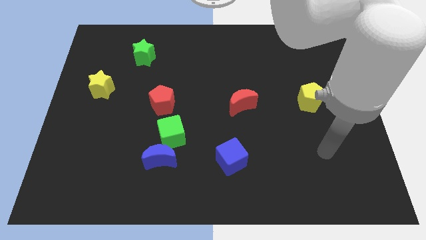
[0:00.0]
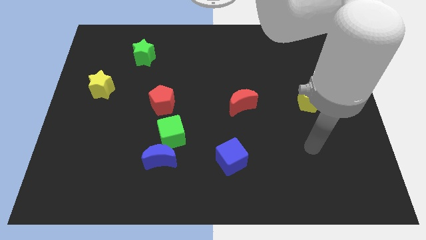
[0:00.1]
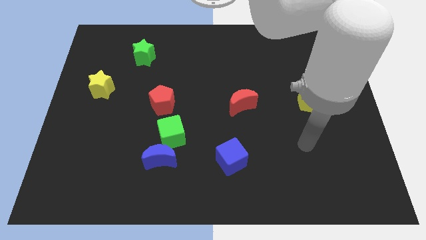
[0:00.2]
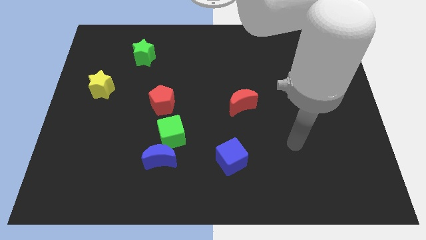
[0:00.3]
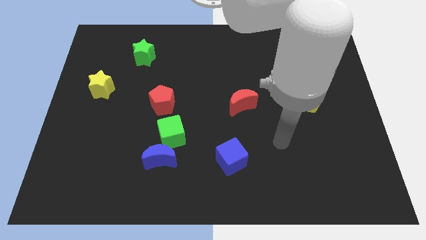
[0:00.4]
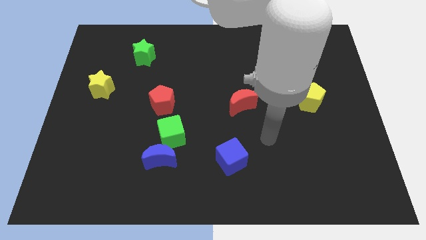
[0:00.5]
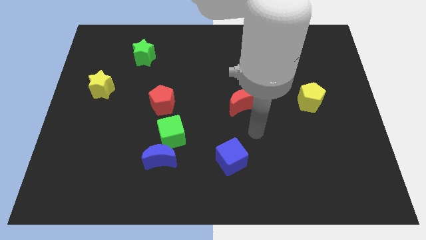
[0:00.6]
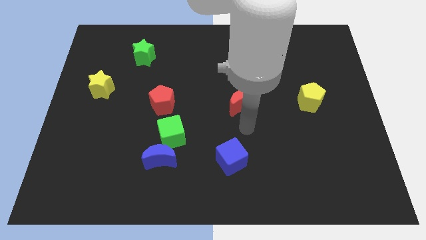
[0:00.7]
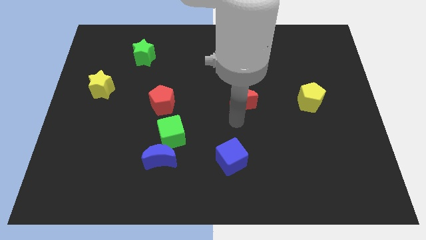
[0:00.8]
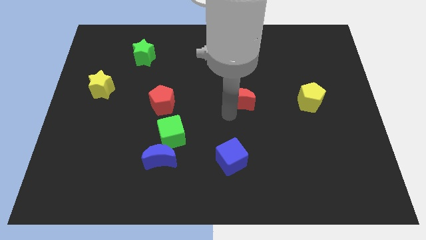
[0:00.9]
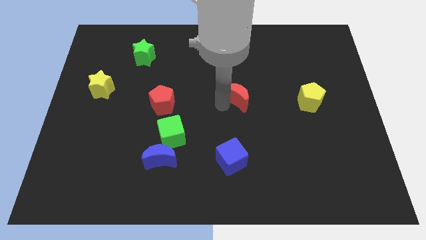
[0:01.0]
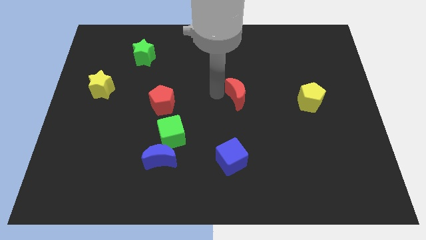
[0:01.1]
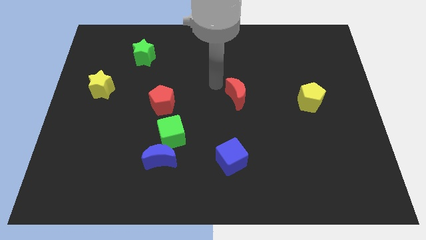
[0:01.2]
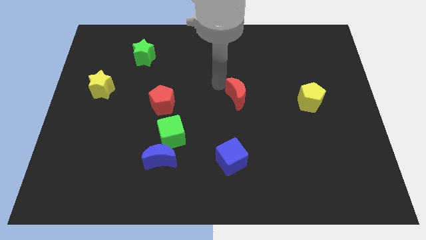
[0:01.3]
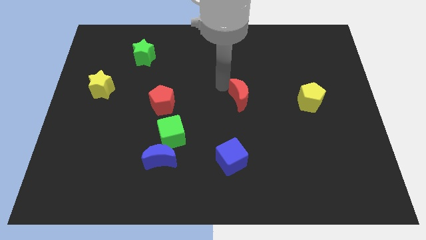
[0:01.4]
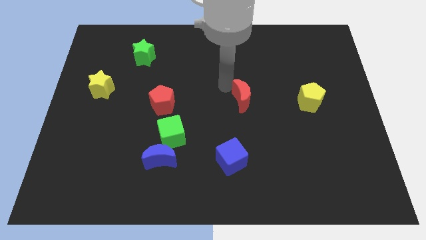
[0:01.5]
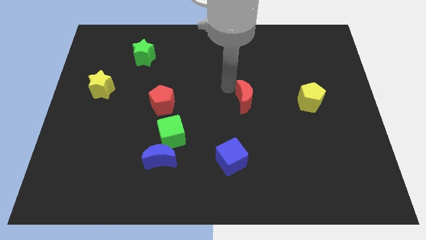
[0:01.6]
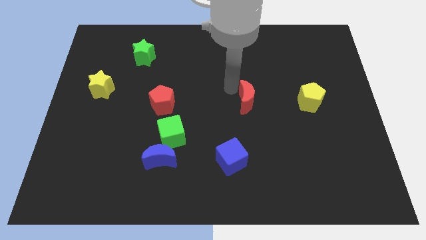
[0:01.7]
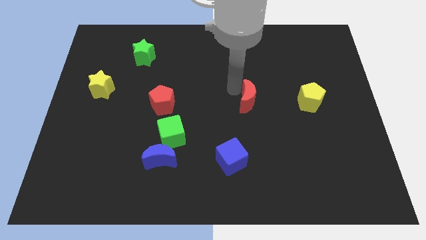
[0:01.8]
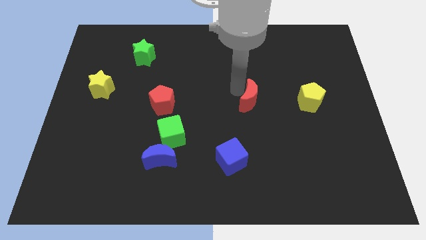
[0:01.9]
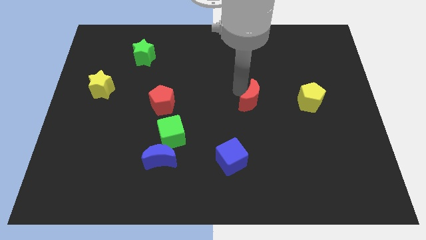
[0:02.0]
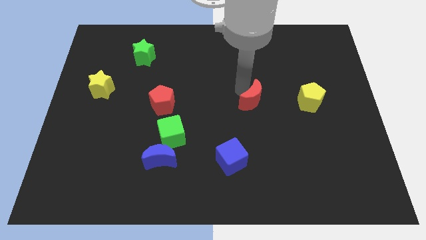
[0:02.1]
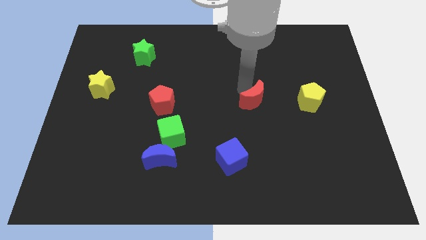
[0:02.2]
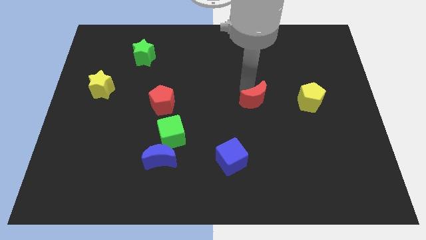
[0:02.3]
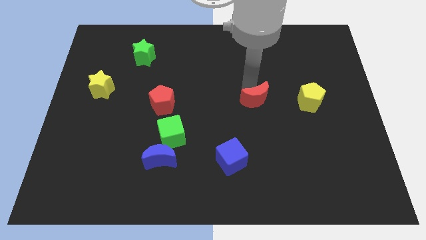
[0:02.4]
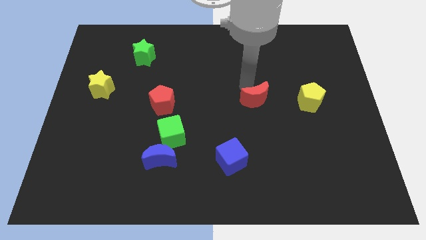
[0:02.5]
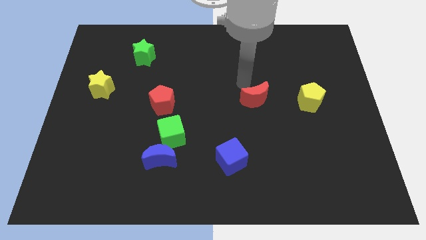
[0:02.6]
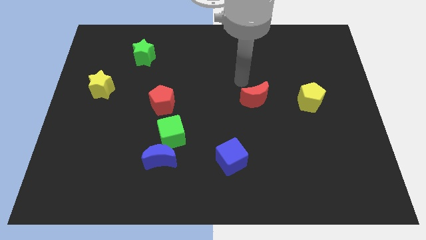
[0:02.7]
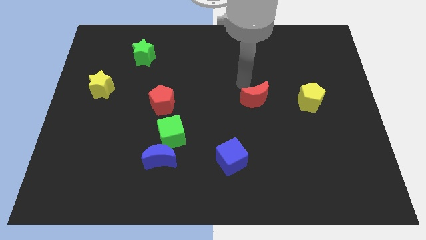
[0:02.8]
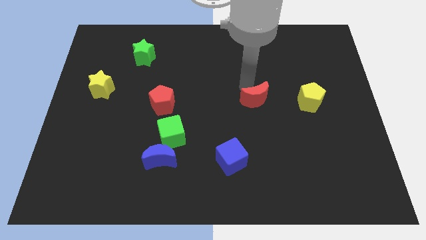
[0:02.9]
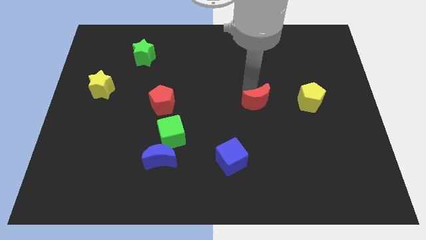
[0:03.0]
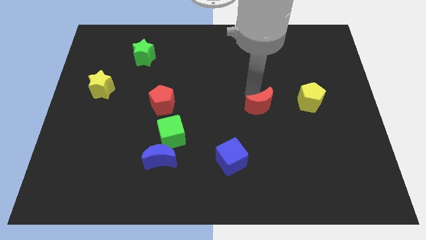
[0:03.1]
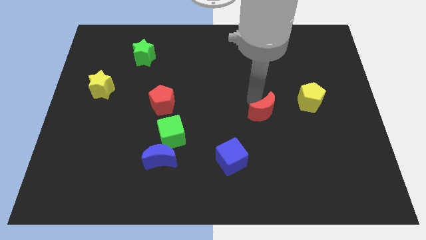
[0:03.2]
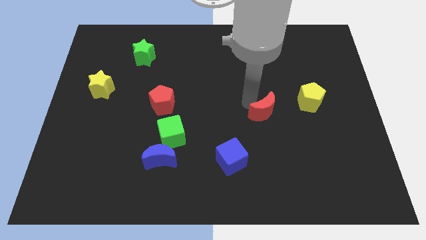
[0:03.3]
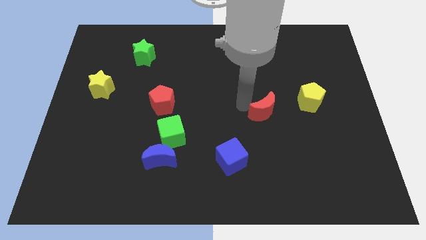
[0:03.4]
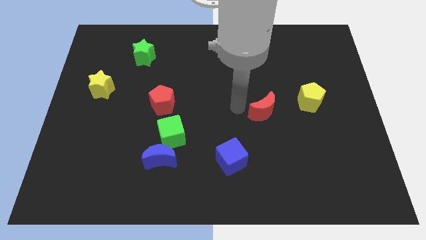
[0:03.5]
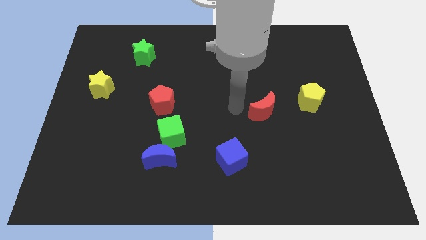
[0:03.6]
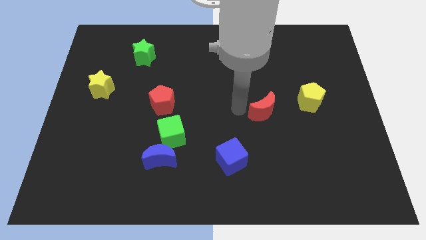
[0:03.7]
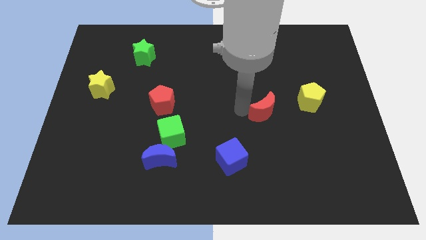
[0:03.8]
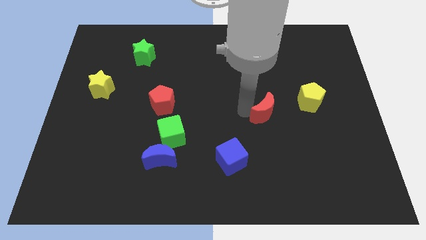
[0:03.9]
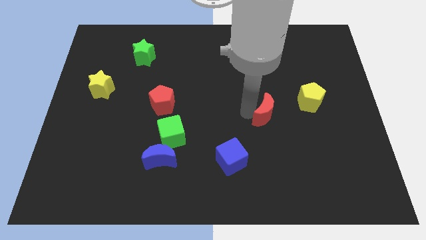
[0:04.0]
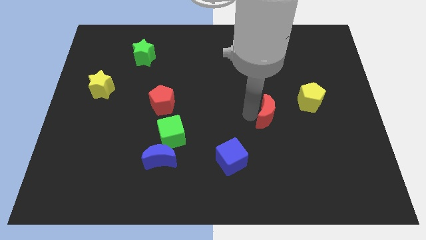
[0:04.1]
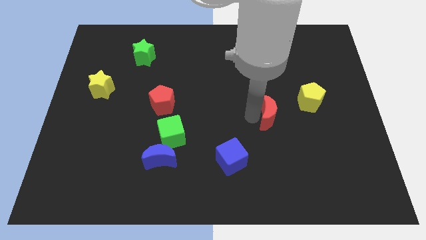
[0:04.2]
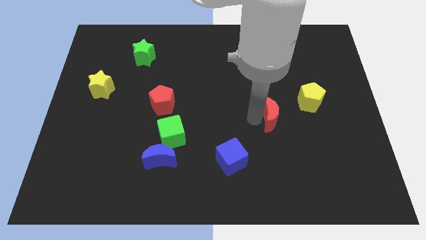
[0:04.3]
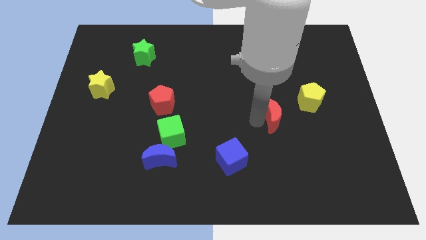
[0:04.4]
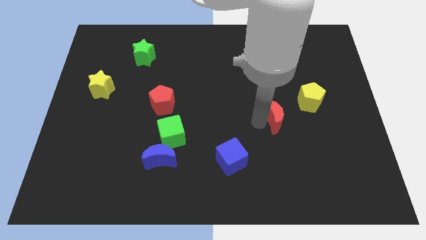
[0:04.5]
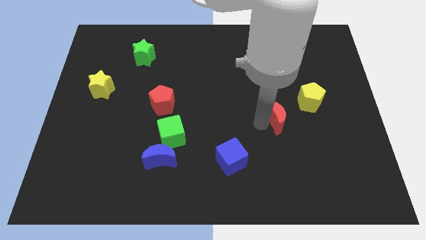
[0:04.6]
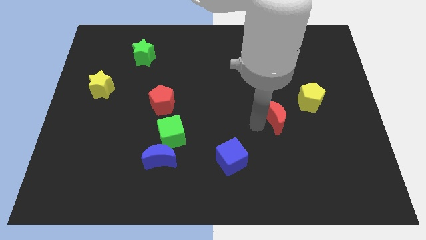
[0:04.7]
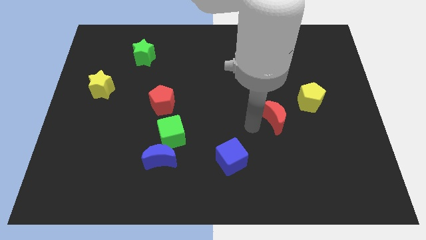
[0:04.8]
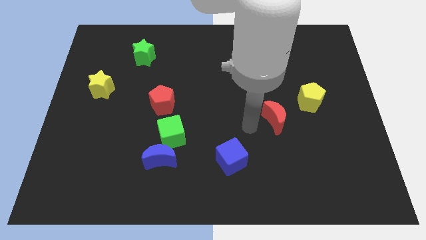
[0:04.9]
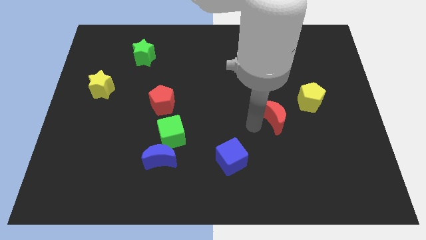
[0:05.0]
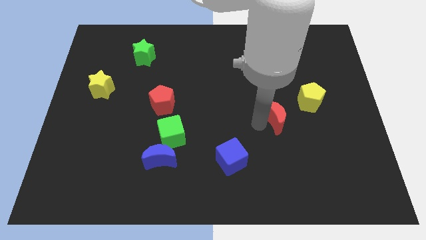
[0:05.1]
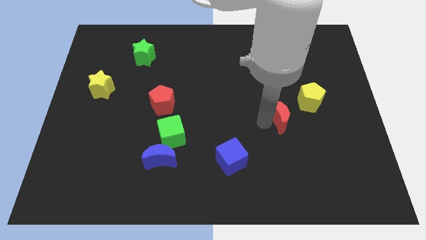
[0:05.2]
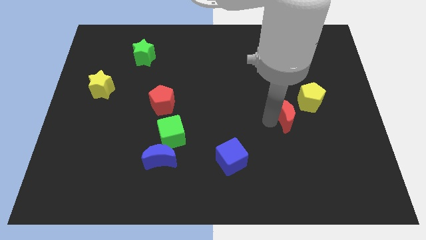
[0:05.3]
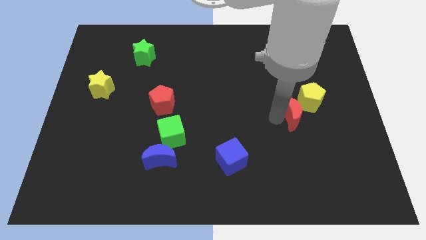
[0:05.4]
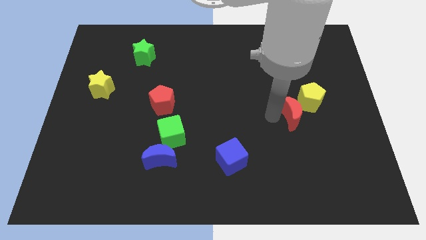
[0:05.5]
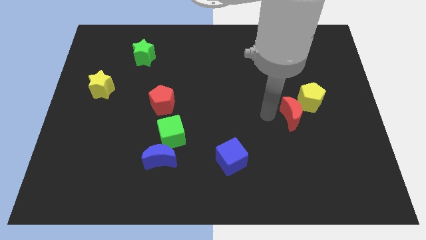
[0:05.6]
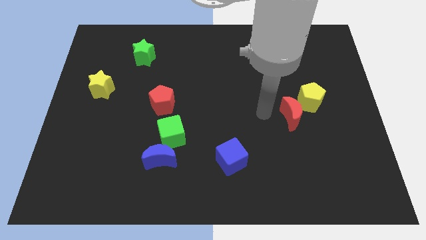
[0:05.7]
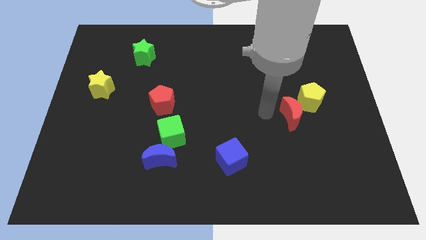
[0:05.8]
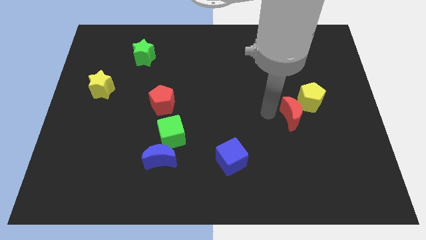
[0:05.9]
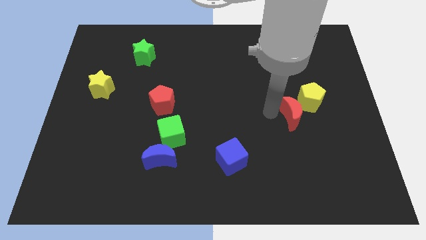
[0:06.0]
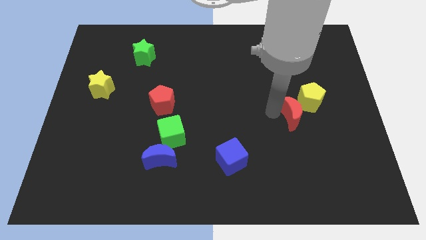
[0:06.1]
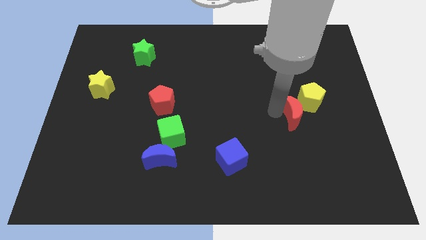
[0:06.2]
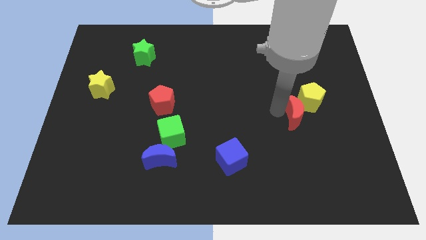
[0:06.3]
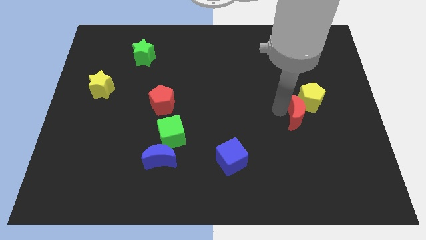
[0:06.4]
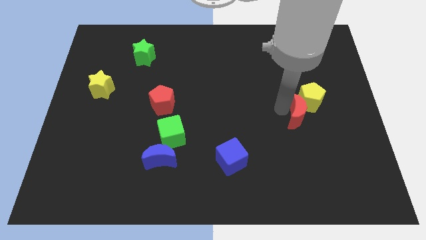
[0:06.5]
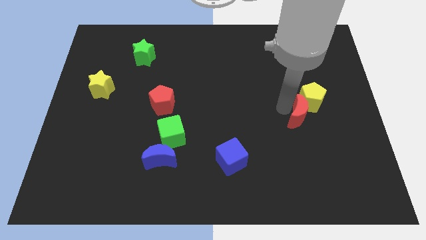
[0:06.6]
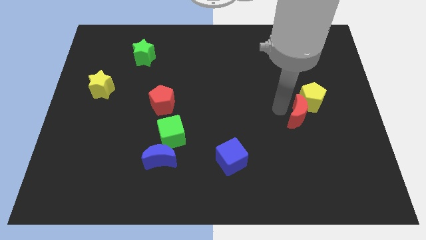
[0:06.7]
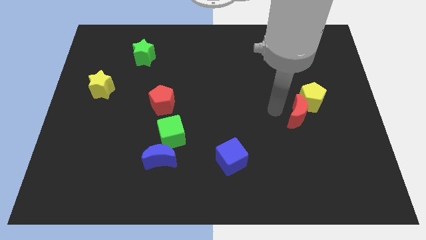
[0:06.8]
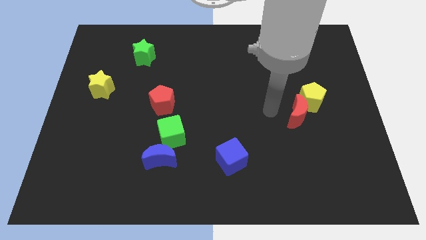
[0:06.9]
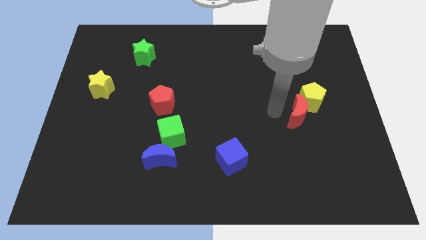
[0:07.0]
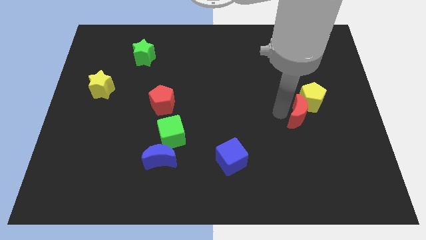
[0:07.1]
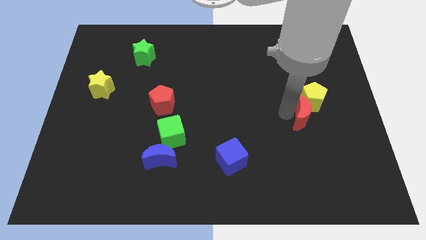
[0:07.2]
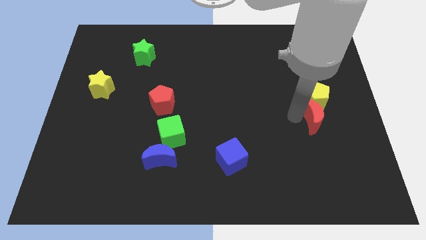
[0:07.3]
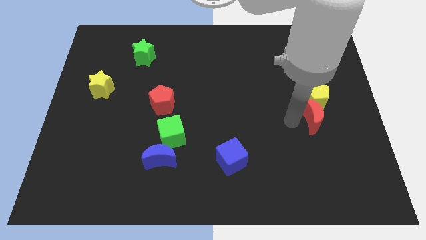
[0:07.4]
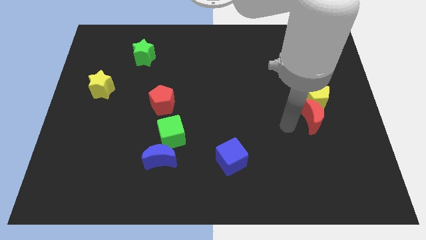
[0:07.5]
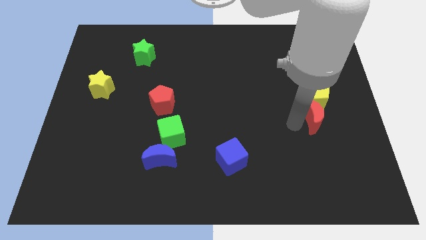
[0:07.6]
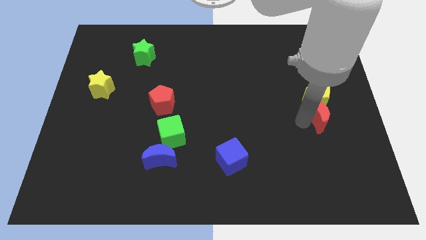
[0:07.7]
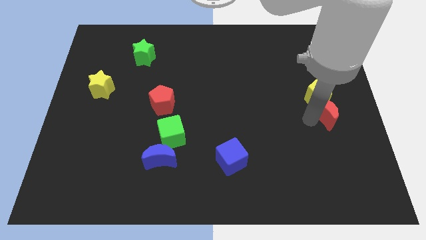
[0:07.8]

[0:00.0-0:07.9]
put the red moon to the right side
